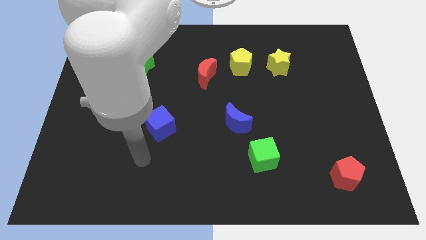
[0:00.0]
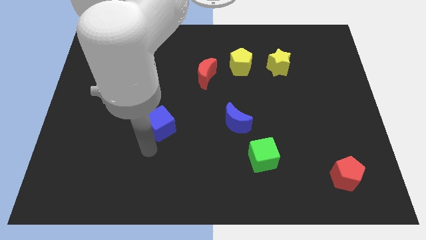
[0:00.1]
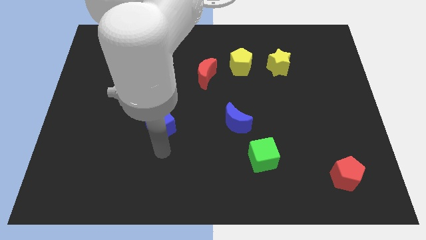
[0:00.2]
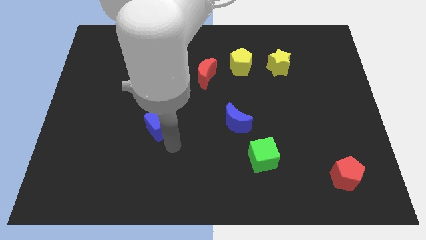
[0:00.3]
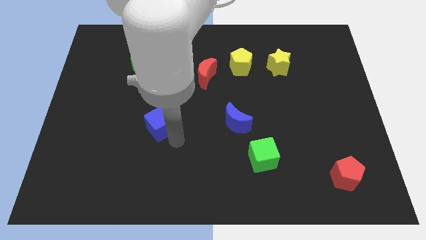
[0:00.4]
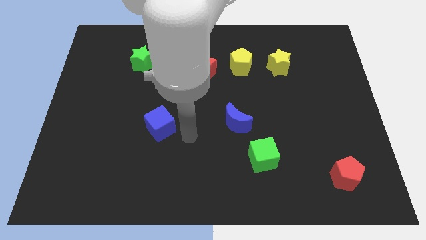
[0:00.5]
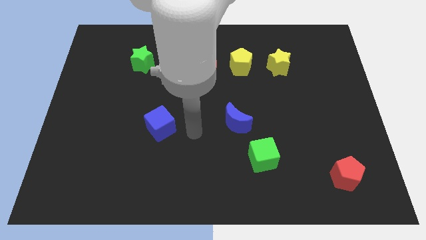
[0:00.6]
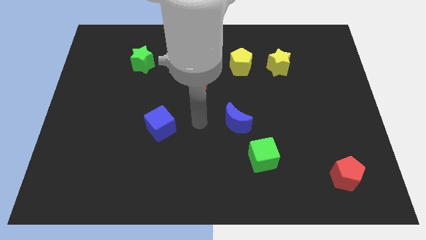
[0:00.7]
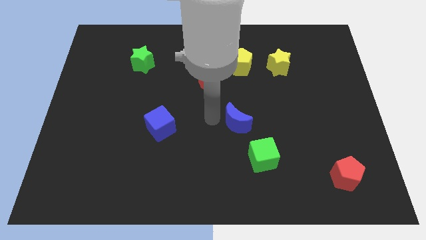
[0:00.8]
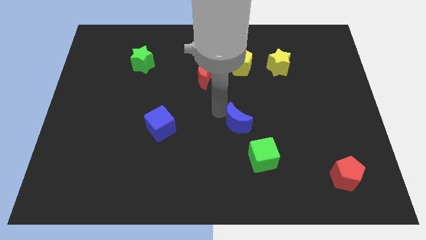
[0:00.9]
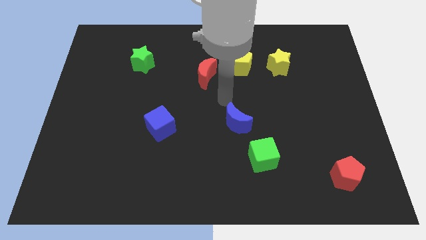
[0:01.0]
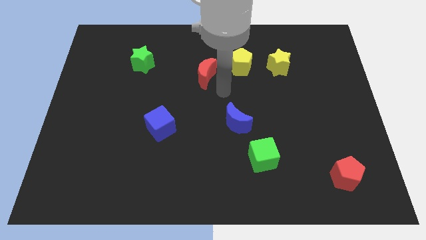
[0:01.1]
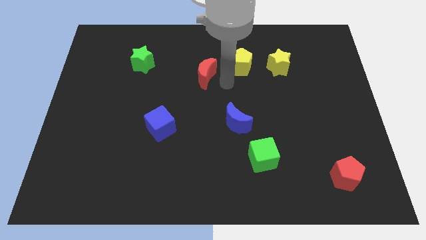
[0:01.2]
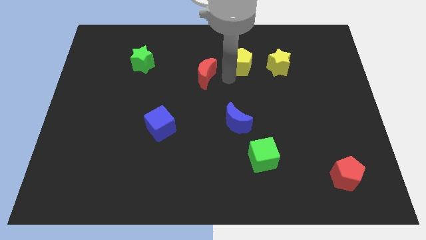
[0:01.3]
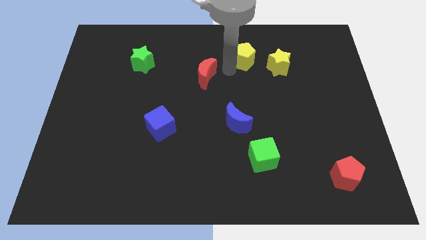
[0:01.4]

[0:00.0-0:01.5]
separate the red moon from the yellow pentagon

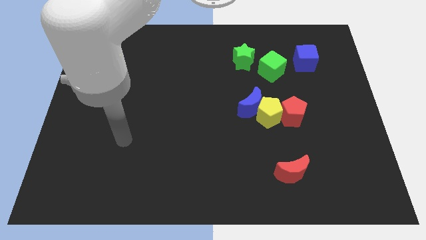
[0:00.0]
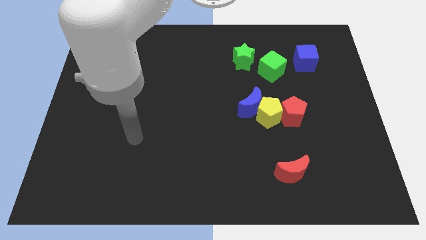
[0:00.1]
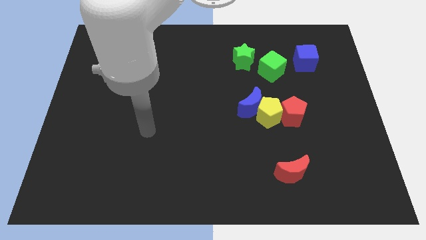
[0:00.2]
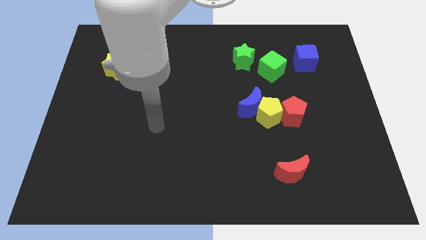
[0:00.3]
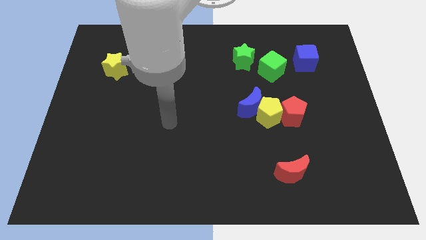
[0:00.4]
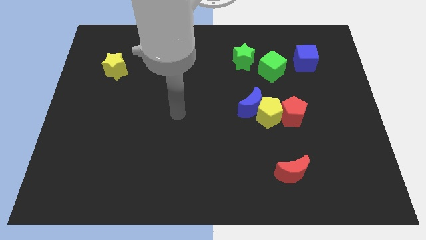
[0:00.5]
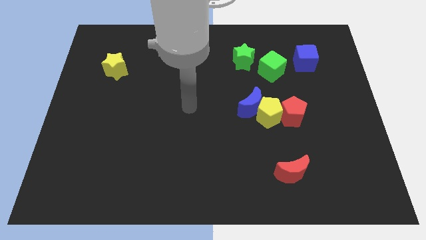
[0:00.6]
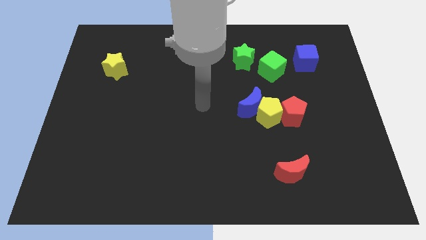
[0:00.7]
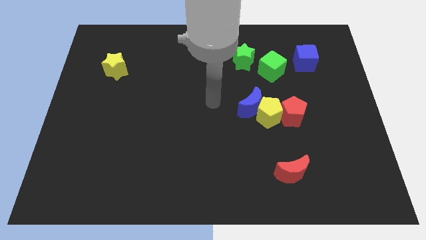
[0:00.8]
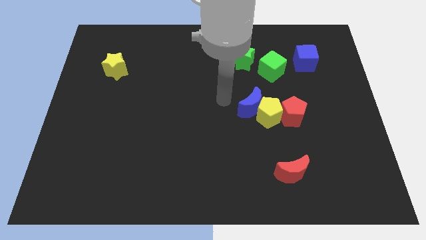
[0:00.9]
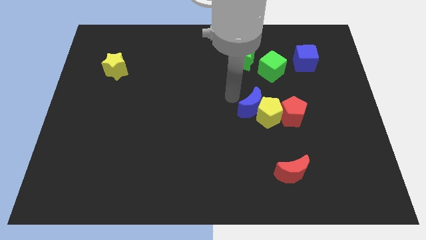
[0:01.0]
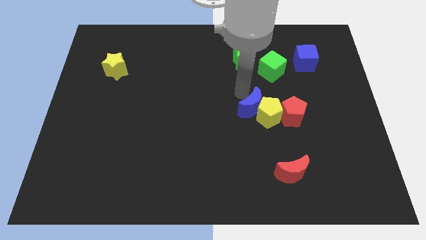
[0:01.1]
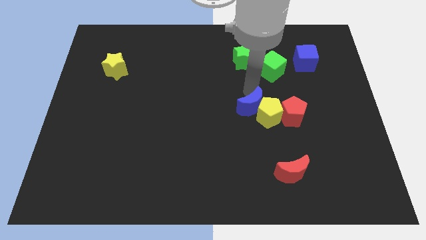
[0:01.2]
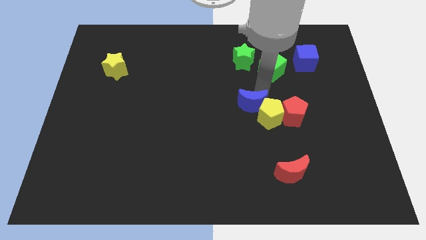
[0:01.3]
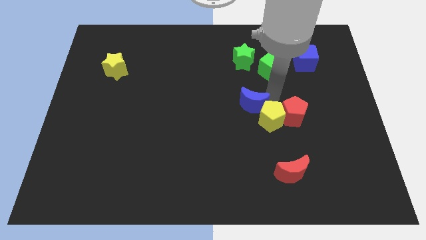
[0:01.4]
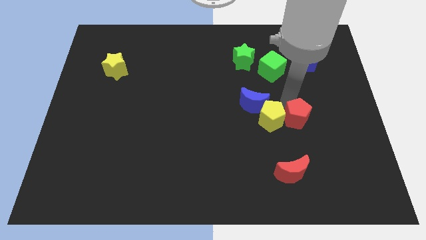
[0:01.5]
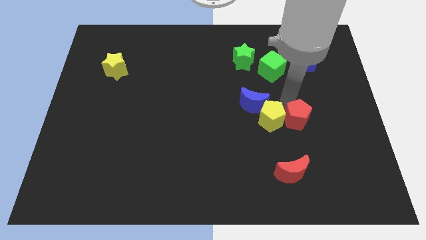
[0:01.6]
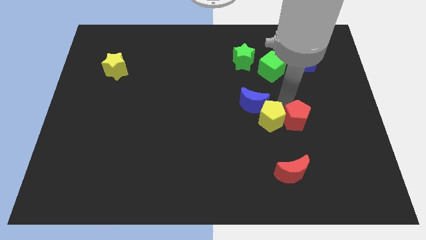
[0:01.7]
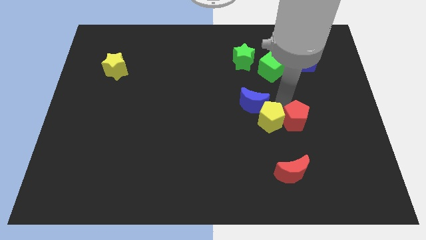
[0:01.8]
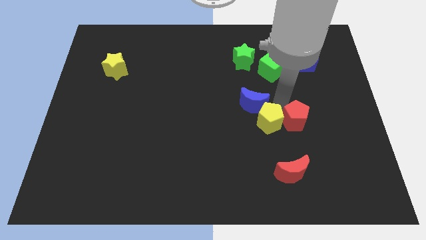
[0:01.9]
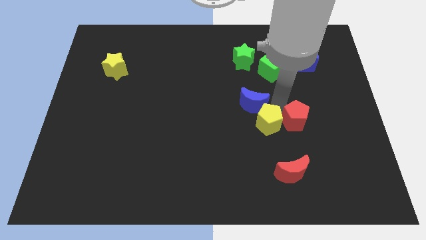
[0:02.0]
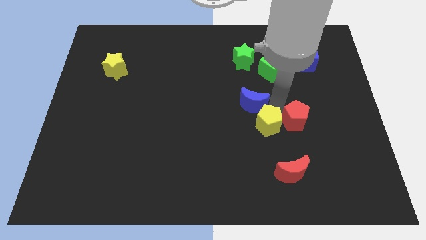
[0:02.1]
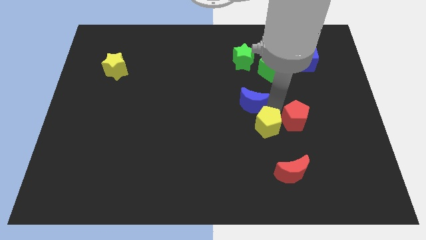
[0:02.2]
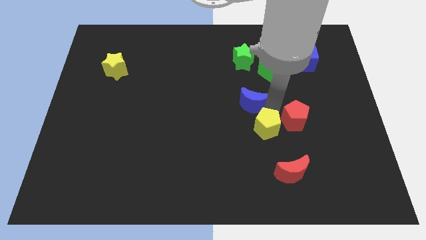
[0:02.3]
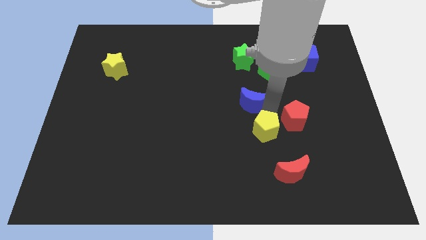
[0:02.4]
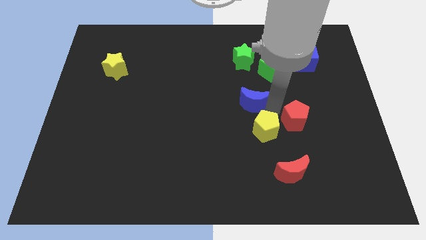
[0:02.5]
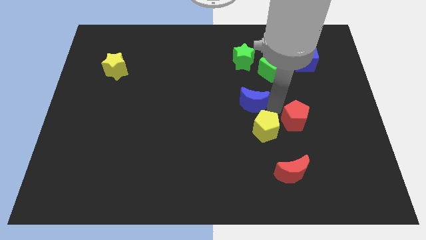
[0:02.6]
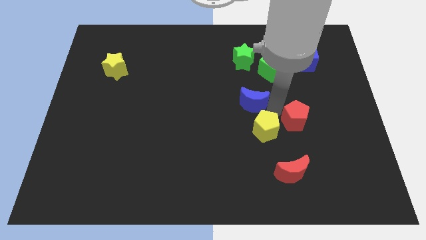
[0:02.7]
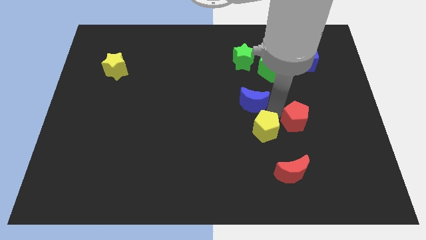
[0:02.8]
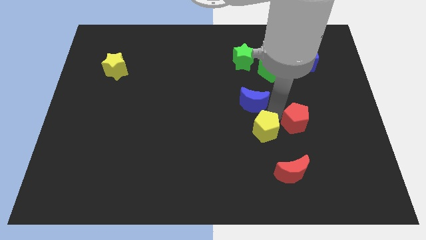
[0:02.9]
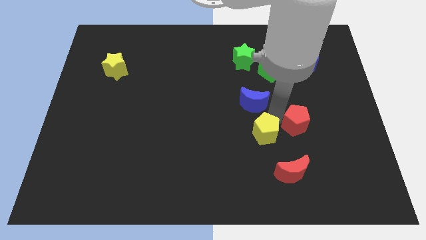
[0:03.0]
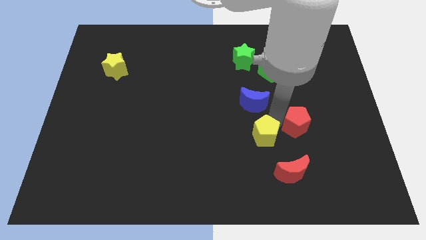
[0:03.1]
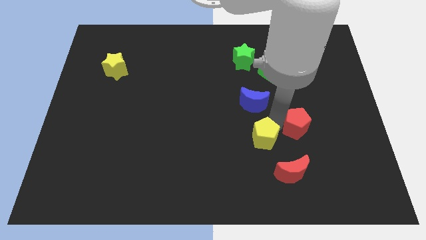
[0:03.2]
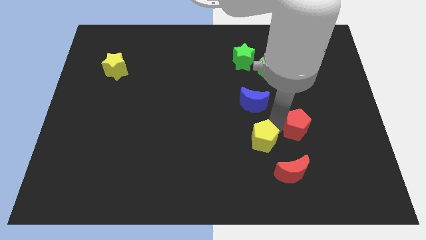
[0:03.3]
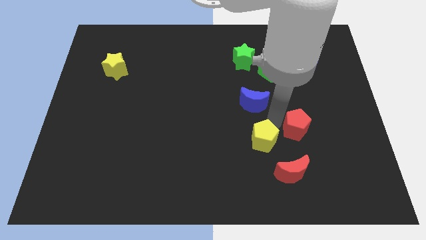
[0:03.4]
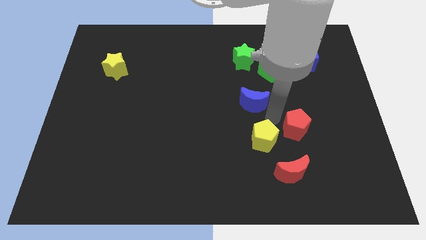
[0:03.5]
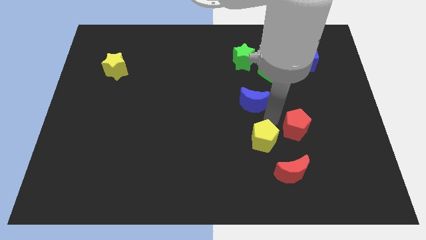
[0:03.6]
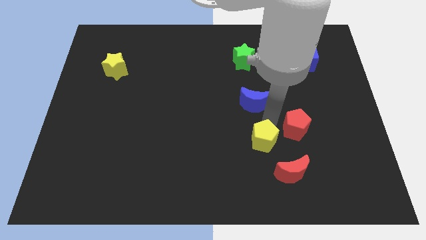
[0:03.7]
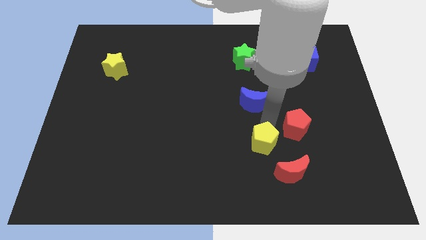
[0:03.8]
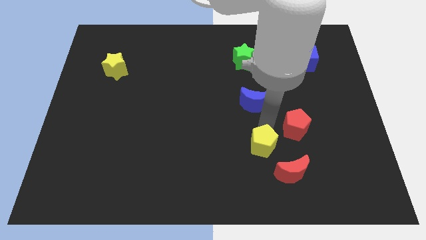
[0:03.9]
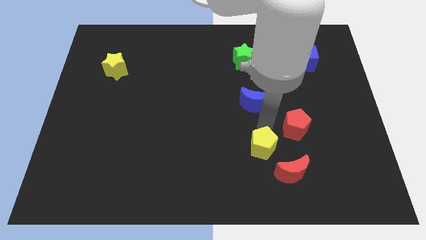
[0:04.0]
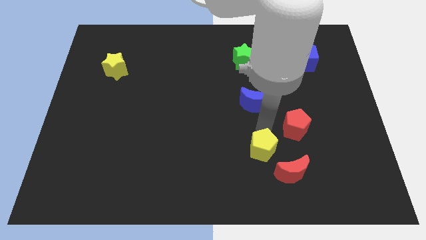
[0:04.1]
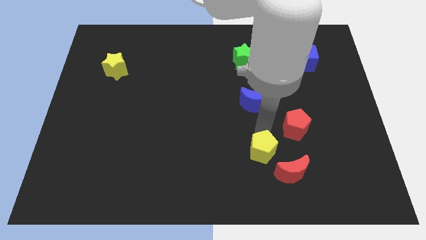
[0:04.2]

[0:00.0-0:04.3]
pull the yellow pentagon apart from the blue moon and red pentagon

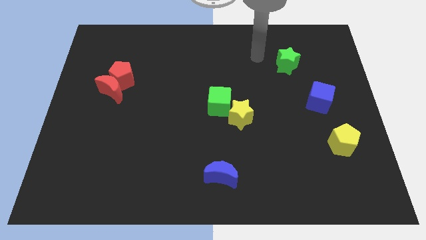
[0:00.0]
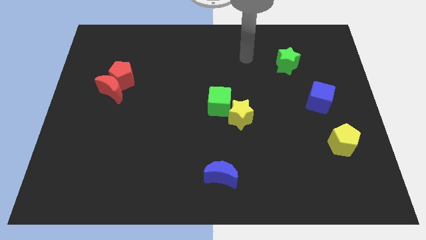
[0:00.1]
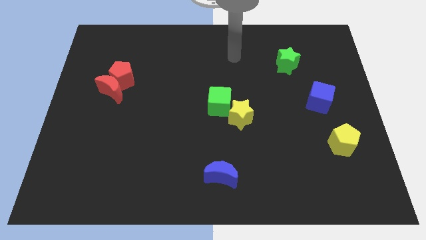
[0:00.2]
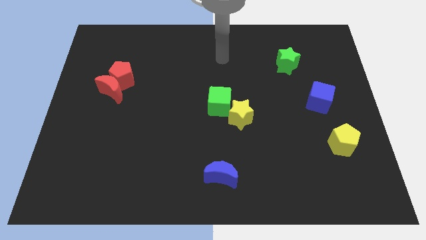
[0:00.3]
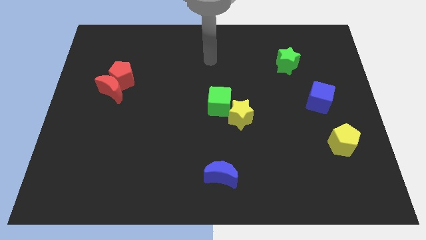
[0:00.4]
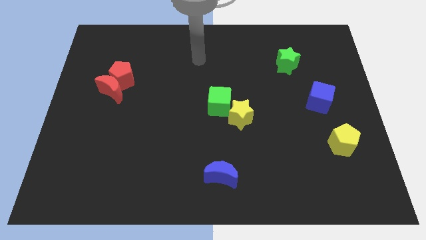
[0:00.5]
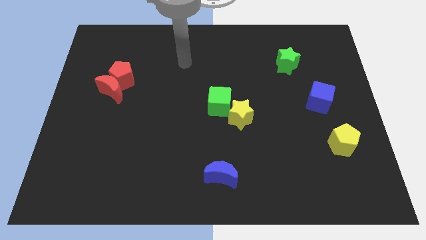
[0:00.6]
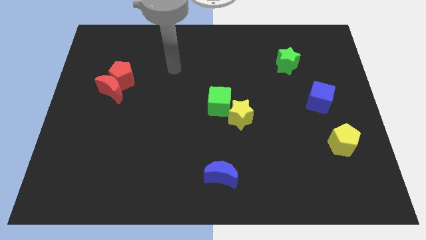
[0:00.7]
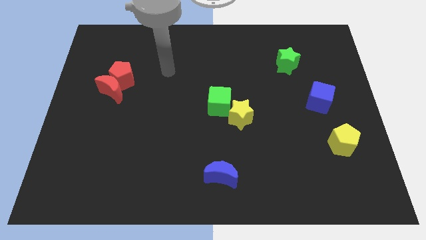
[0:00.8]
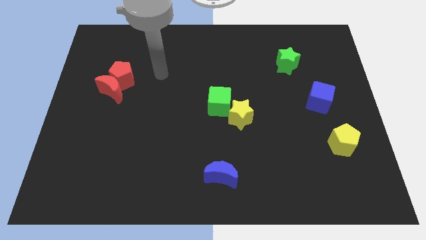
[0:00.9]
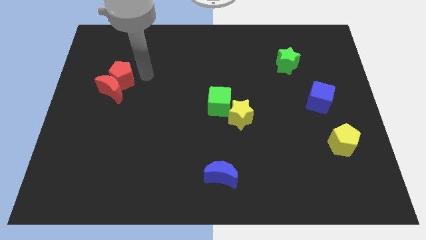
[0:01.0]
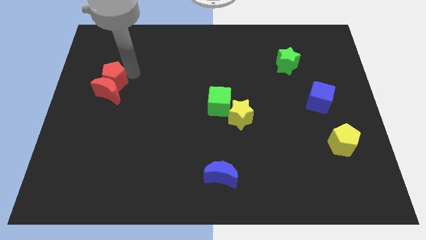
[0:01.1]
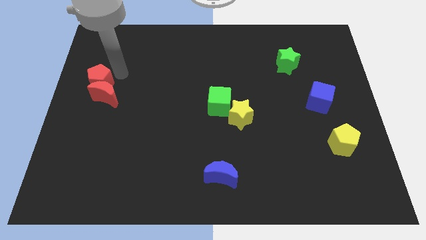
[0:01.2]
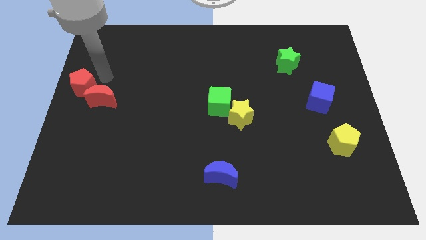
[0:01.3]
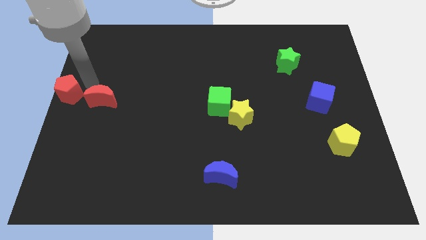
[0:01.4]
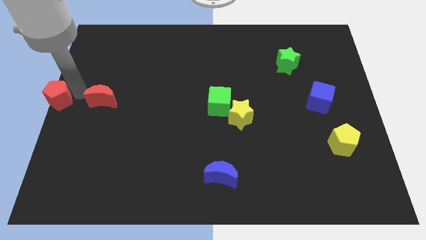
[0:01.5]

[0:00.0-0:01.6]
separate the red moon from the red pentagon

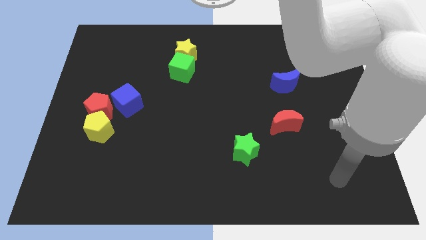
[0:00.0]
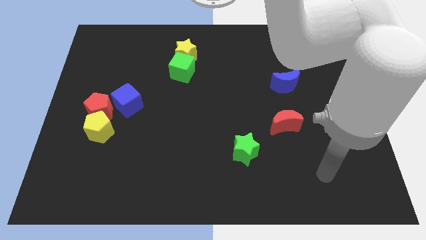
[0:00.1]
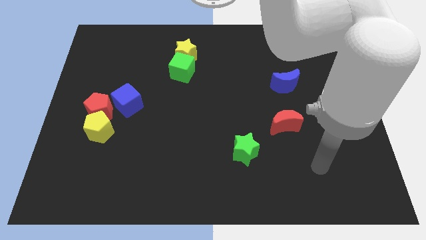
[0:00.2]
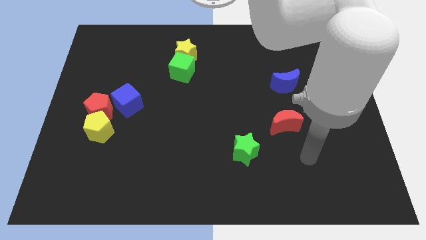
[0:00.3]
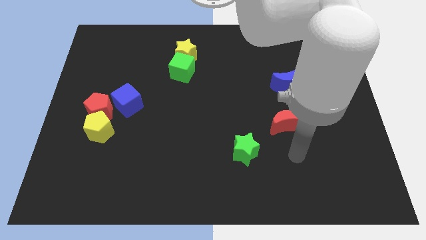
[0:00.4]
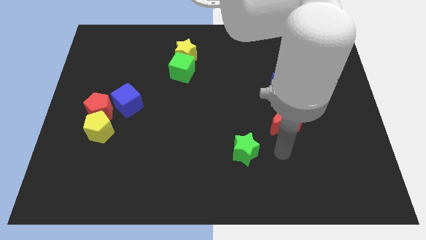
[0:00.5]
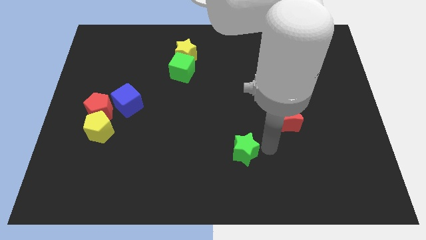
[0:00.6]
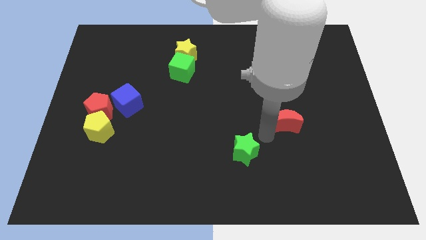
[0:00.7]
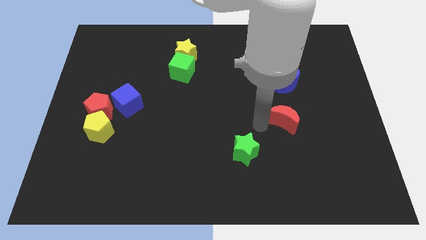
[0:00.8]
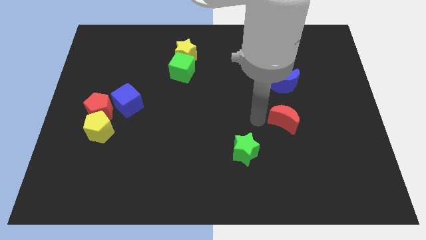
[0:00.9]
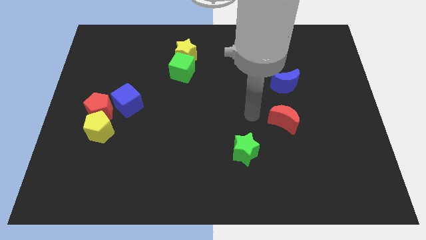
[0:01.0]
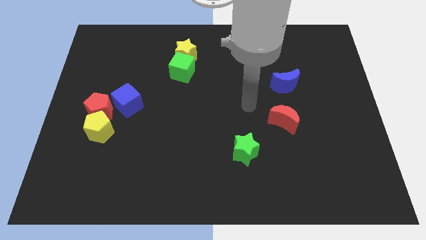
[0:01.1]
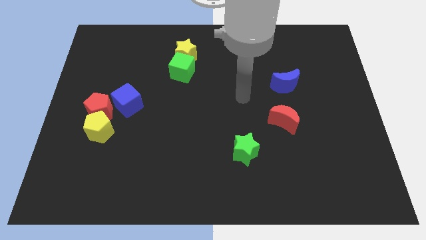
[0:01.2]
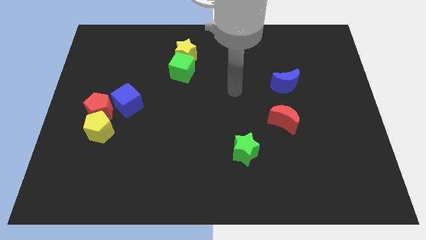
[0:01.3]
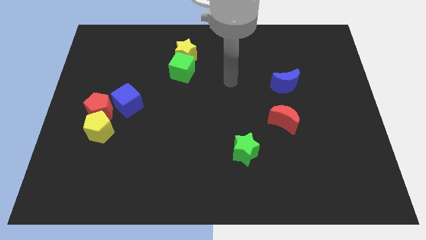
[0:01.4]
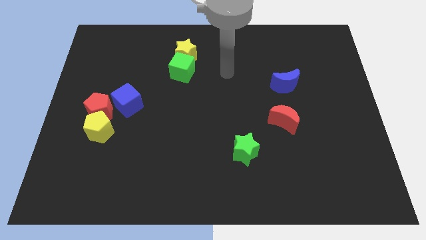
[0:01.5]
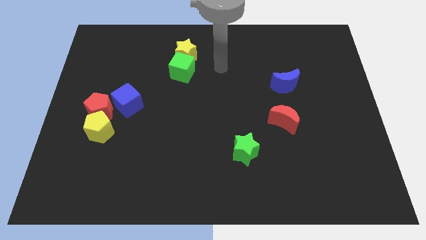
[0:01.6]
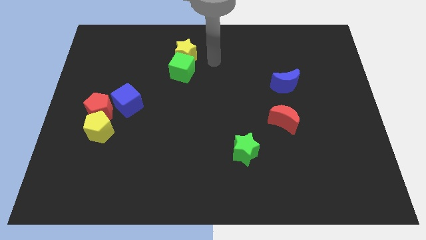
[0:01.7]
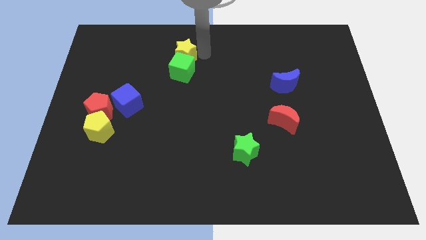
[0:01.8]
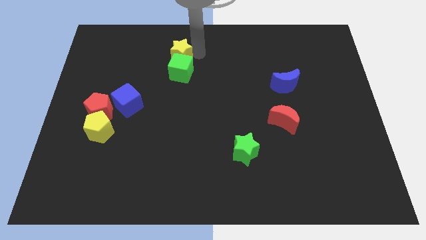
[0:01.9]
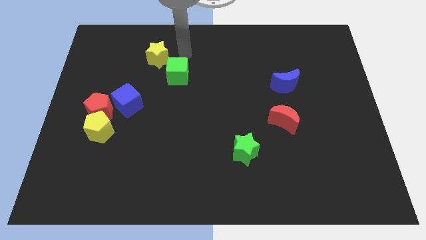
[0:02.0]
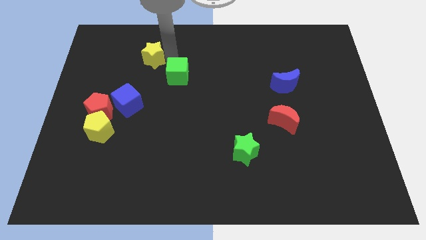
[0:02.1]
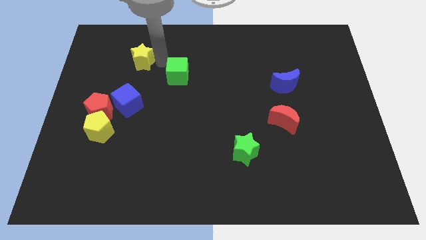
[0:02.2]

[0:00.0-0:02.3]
pull the green cube apart from the yellow star
